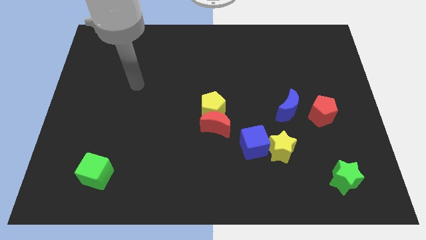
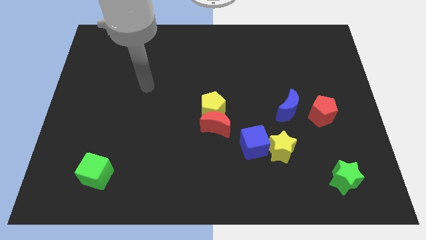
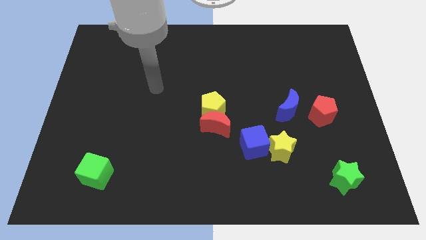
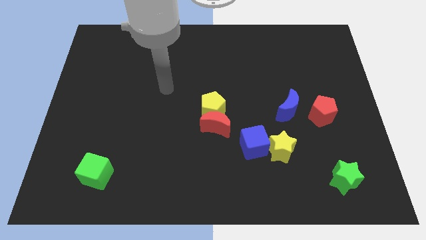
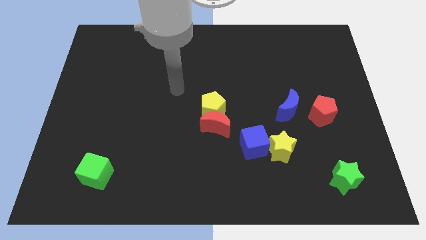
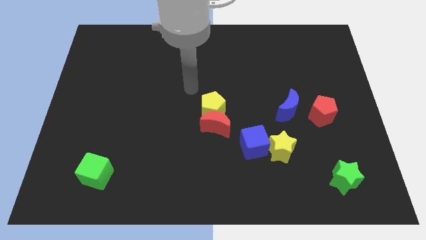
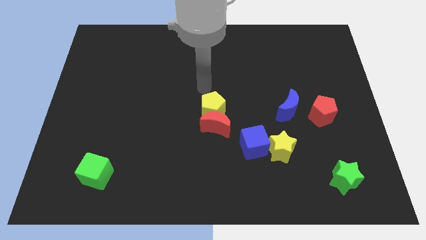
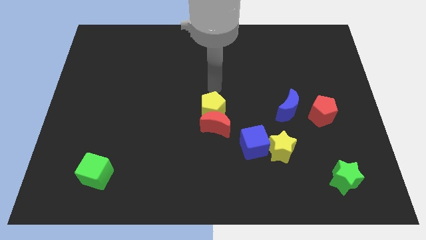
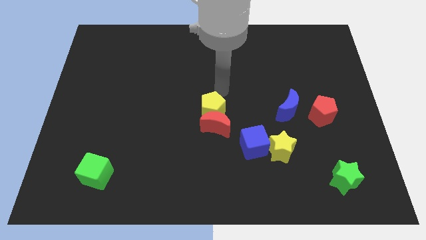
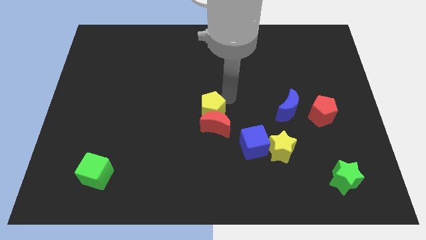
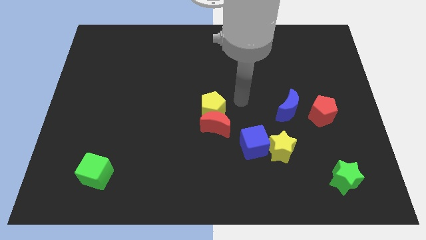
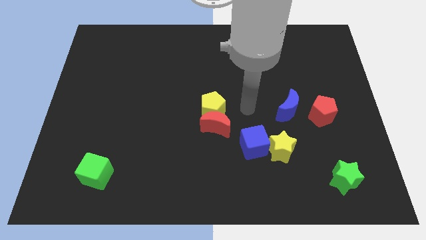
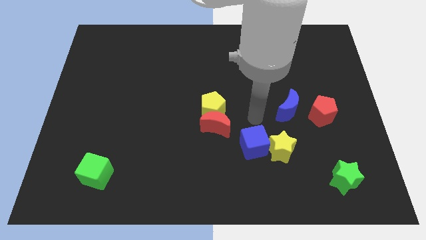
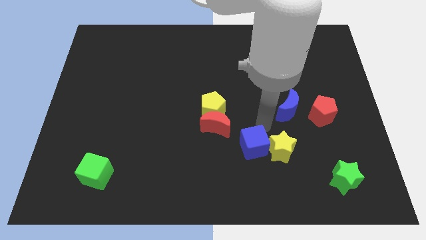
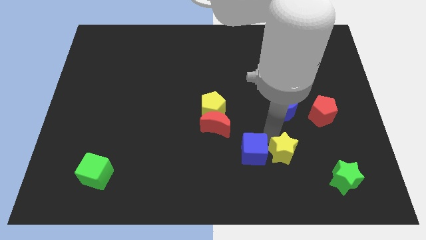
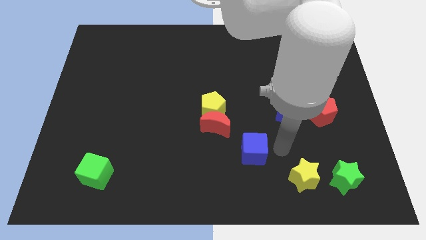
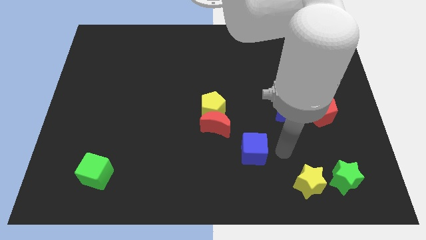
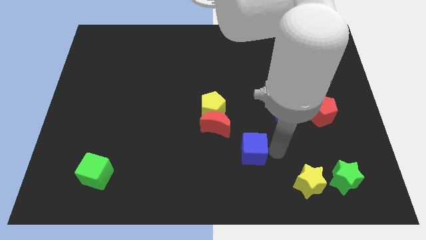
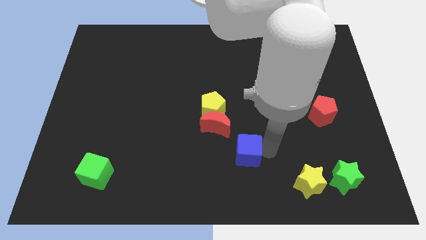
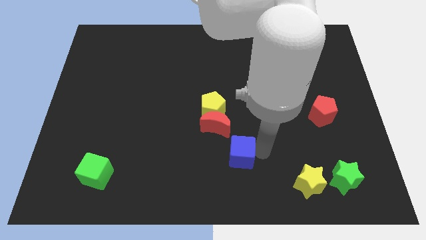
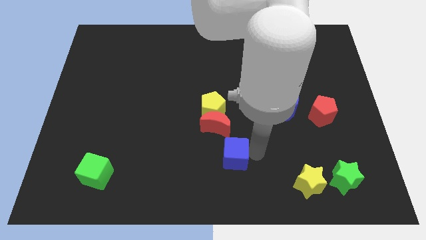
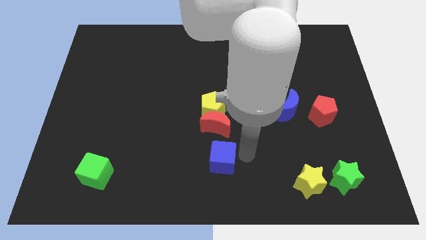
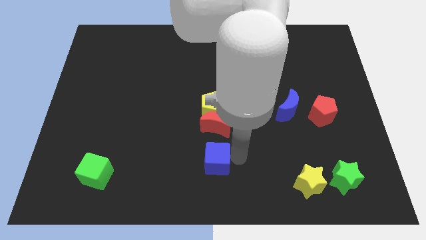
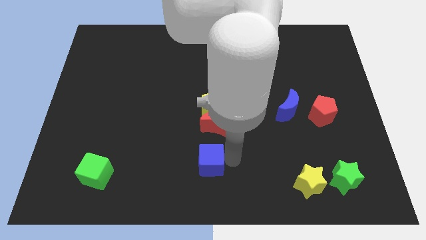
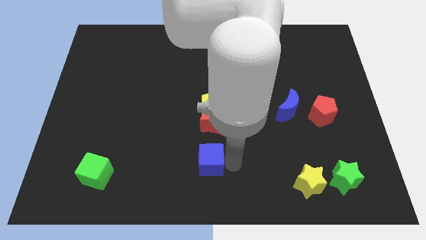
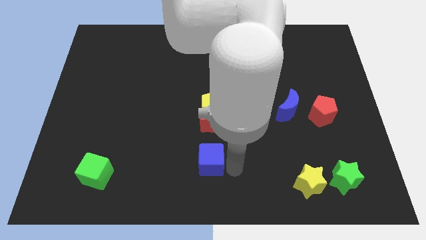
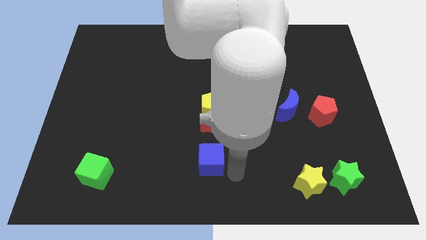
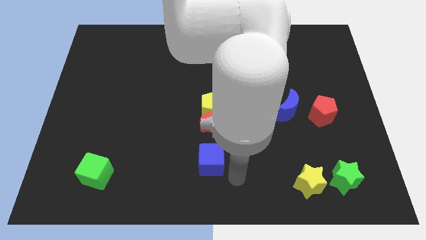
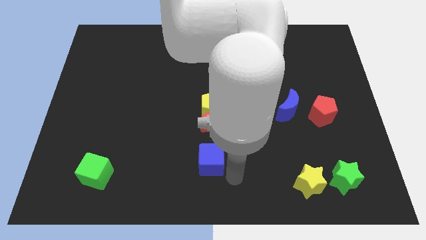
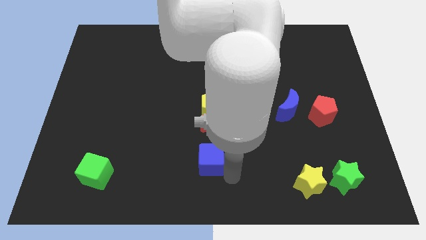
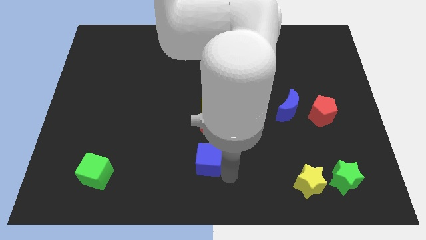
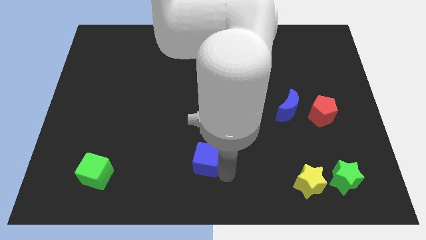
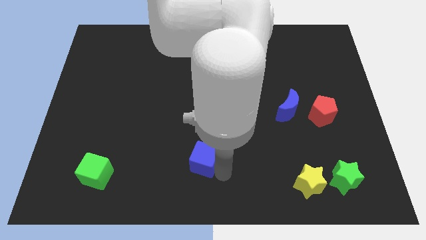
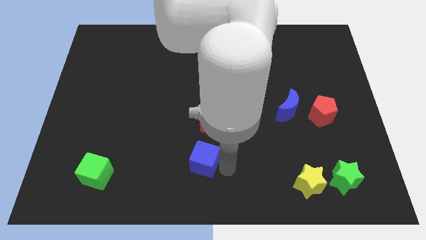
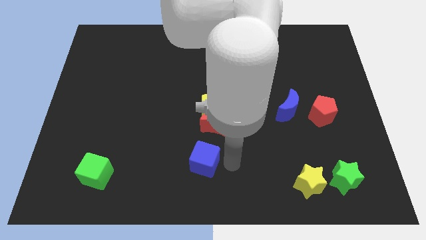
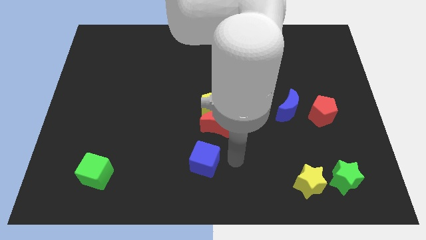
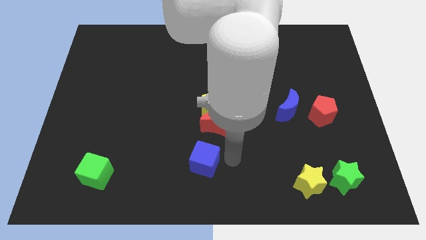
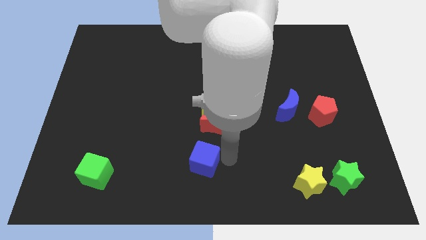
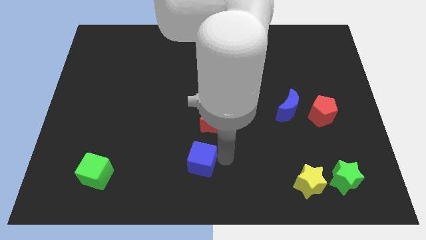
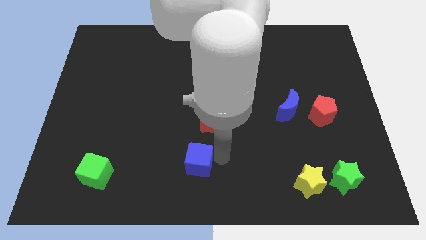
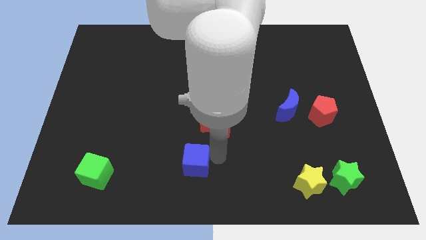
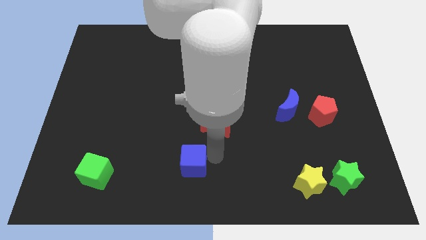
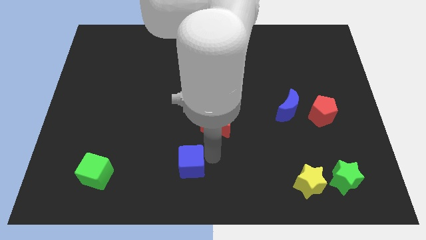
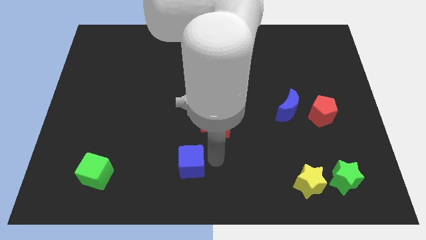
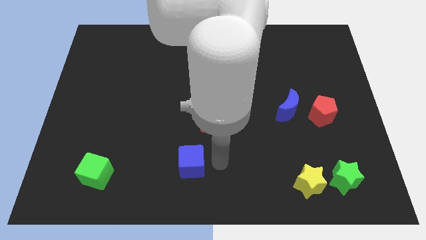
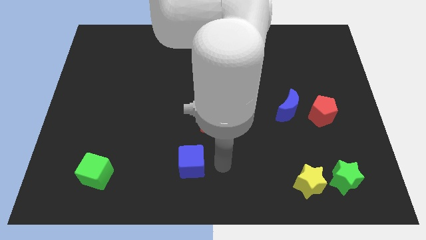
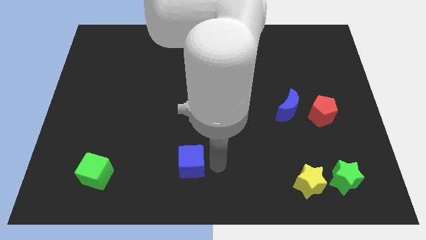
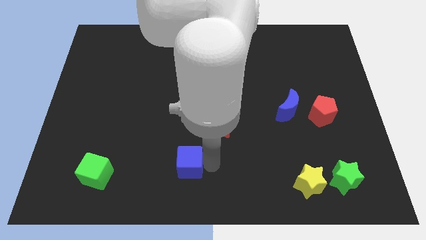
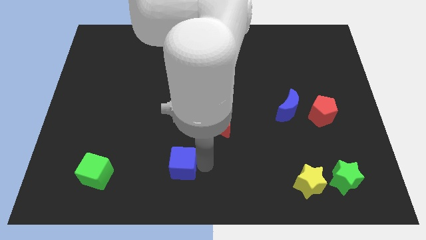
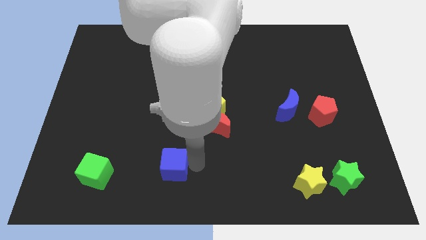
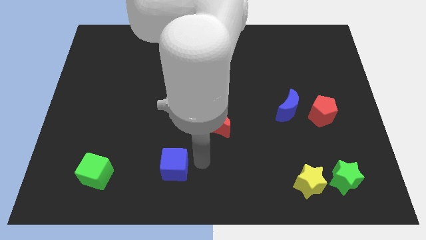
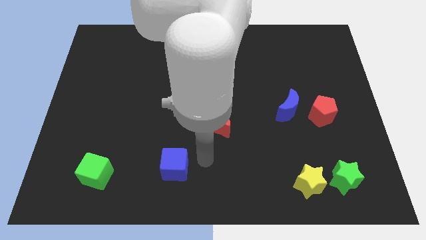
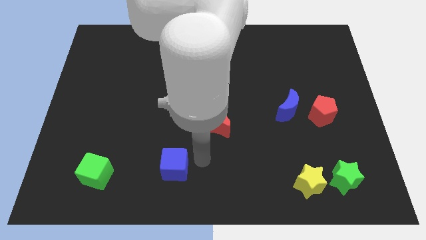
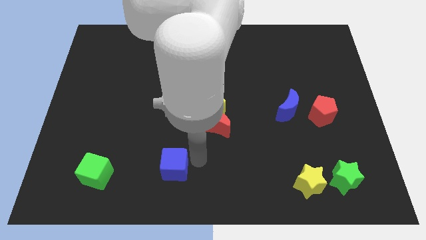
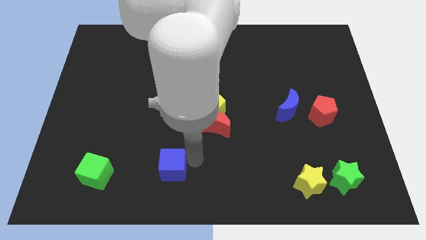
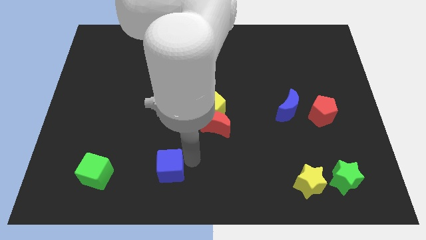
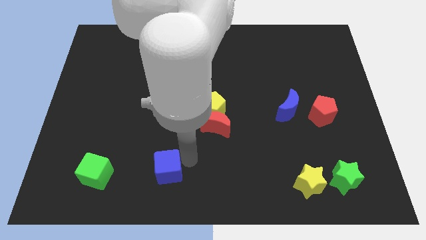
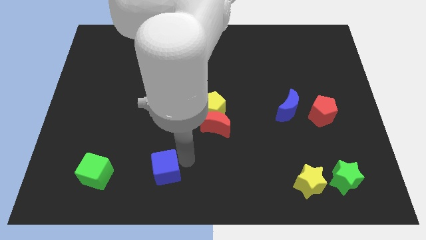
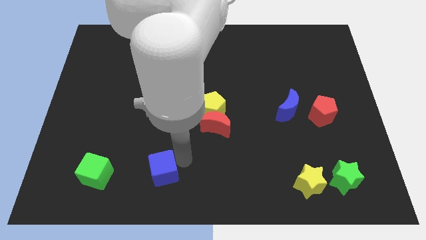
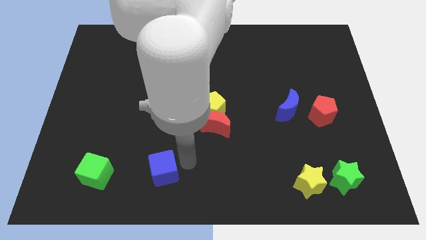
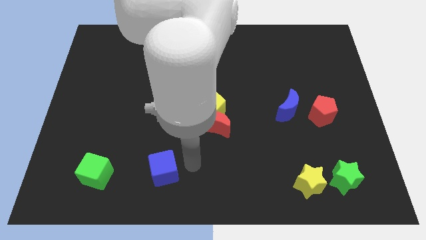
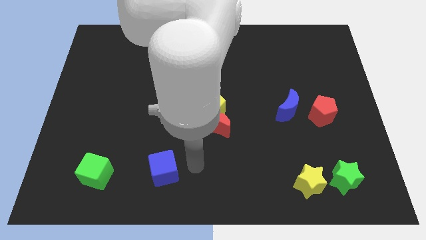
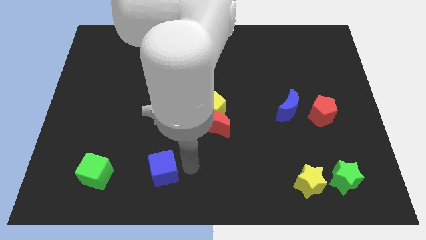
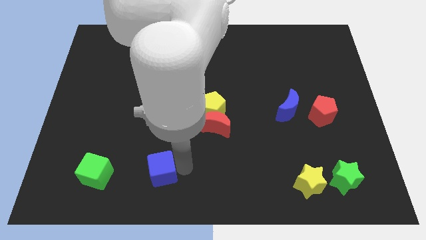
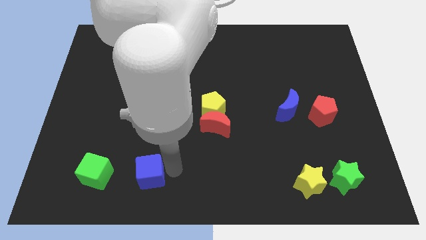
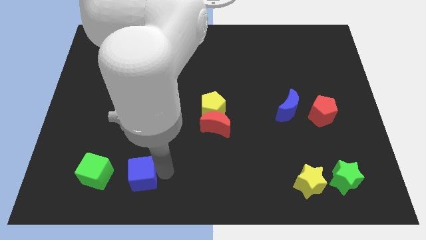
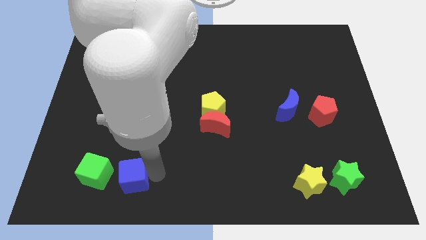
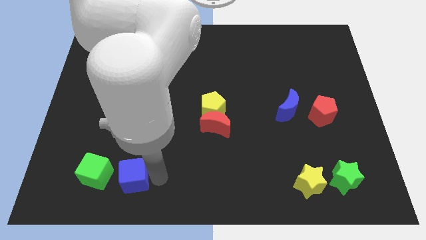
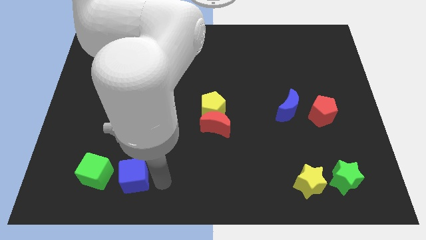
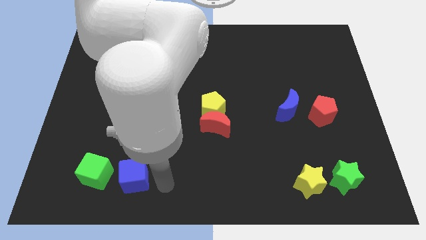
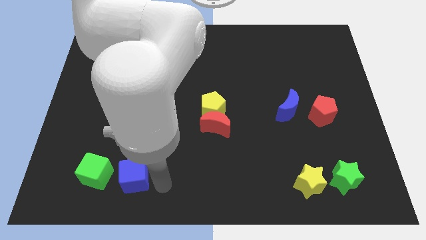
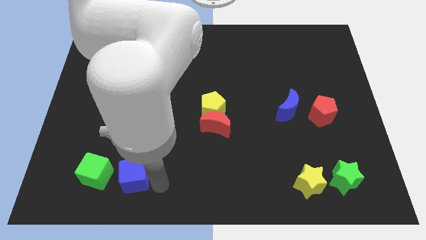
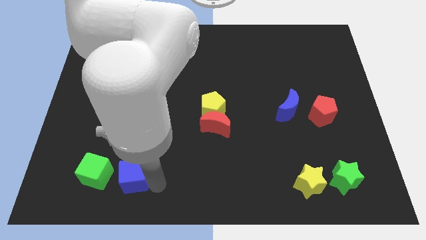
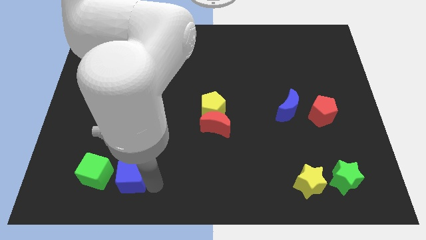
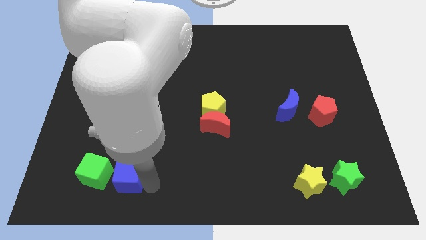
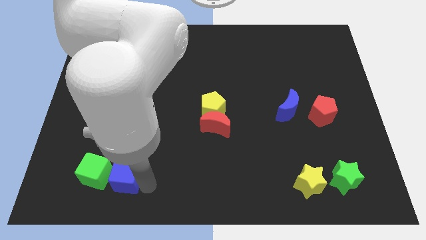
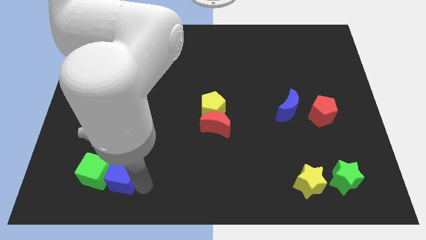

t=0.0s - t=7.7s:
slide the blue cube towards the green cube
